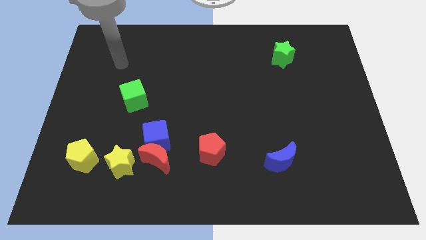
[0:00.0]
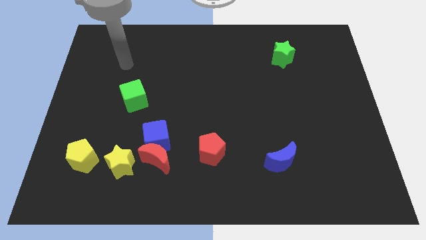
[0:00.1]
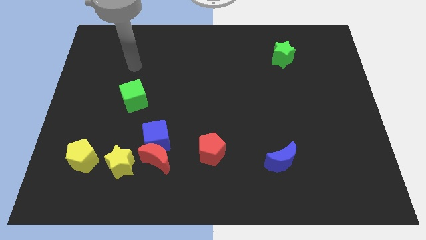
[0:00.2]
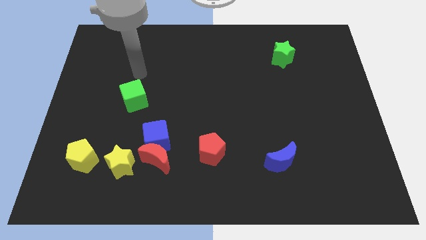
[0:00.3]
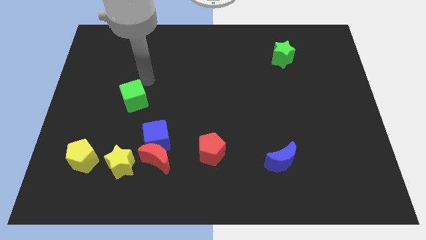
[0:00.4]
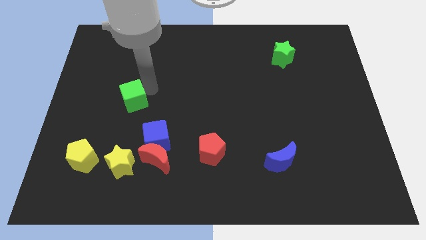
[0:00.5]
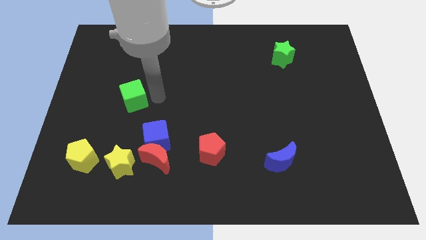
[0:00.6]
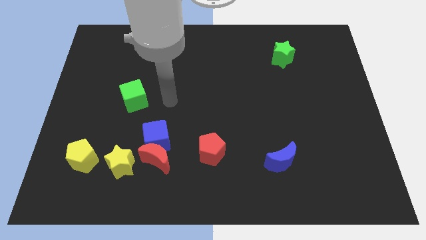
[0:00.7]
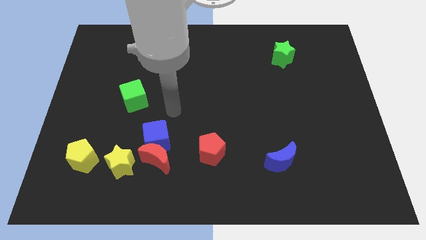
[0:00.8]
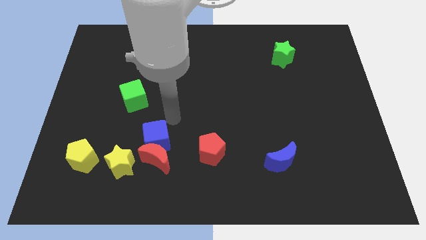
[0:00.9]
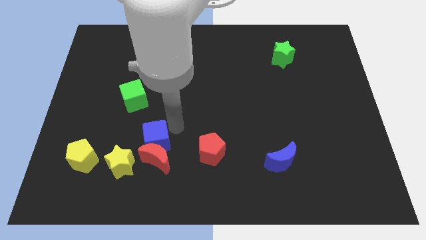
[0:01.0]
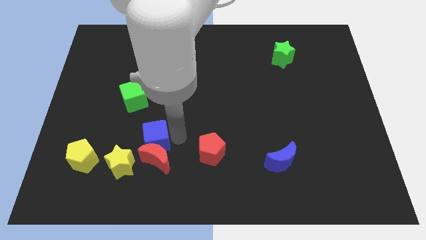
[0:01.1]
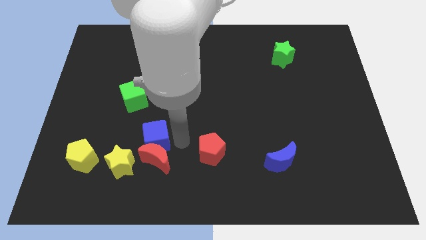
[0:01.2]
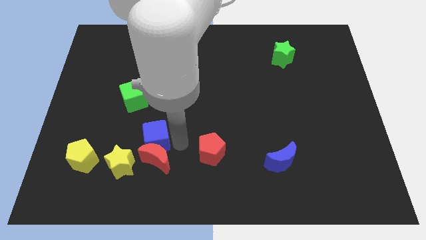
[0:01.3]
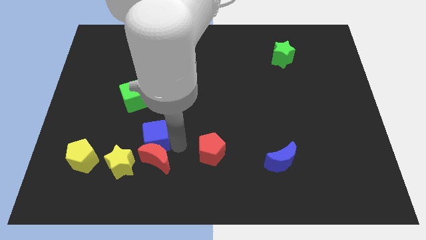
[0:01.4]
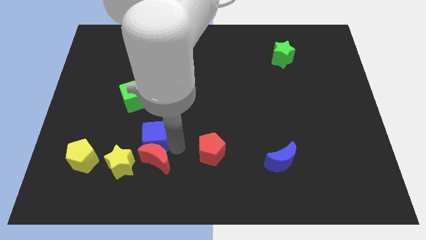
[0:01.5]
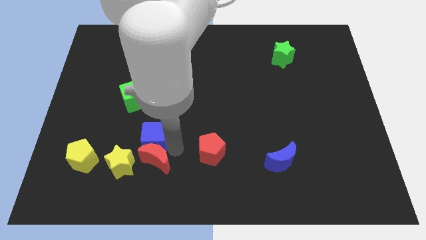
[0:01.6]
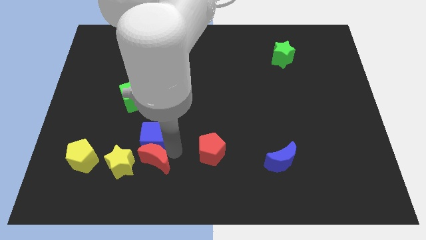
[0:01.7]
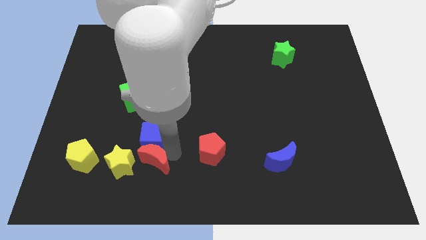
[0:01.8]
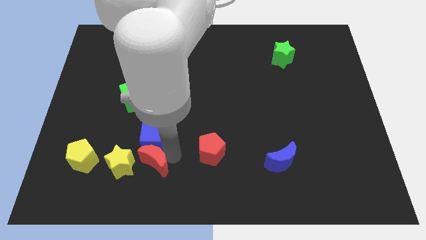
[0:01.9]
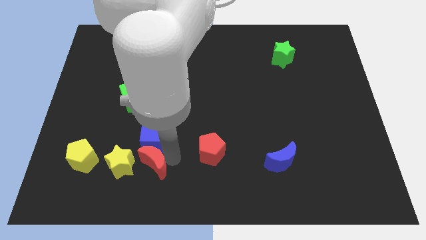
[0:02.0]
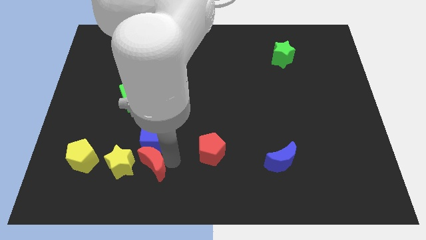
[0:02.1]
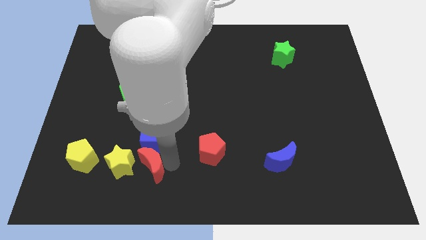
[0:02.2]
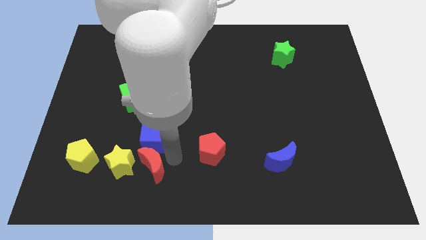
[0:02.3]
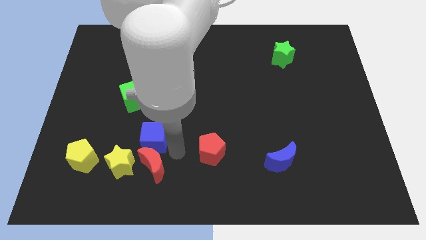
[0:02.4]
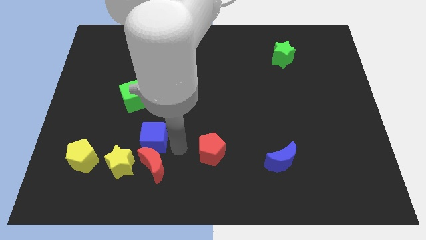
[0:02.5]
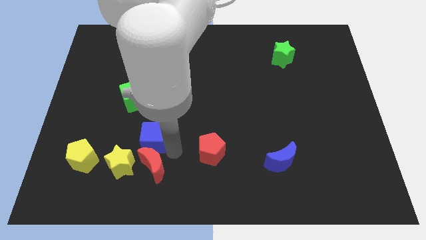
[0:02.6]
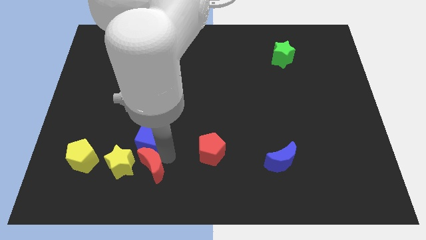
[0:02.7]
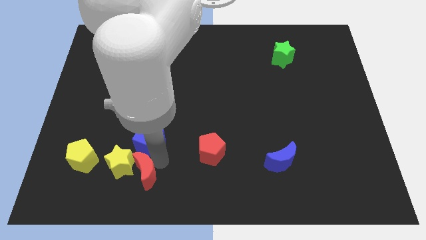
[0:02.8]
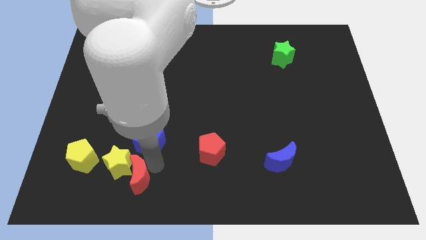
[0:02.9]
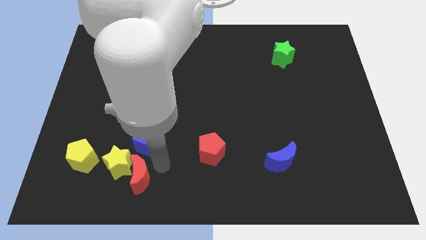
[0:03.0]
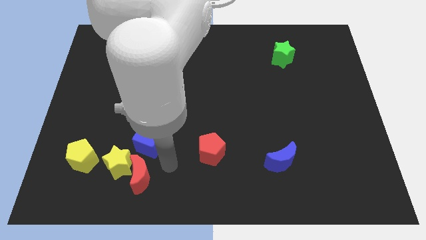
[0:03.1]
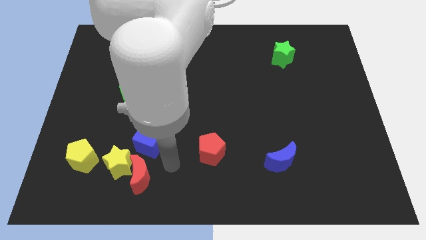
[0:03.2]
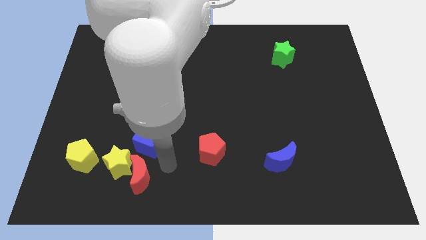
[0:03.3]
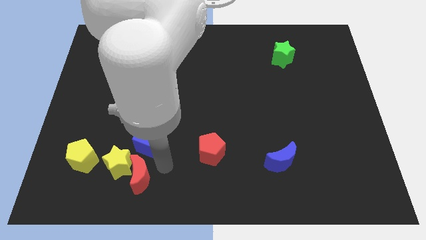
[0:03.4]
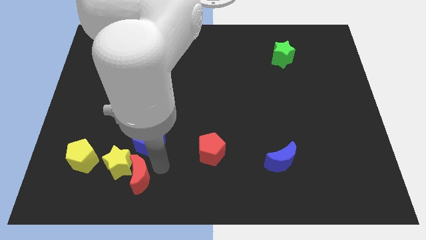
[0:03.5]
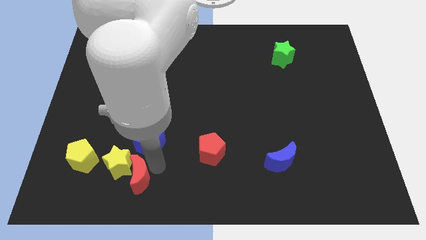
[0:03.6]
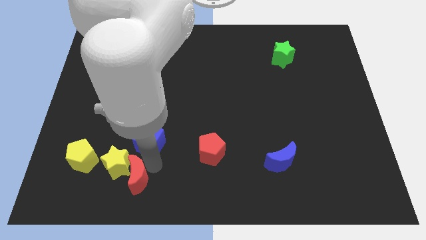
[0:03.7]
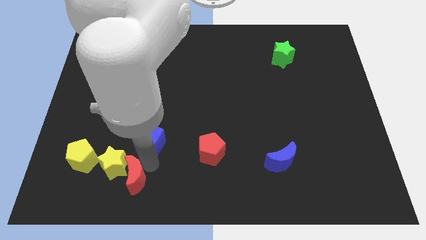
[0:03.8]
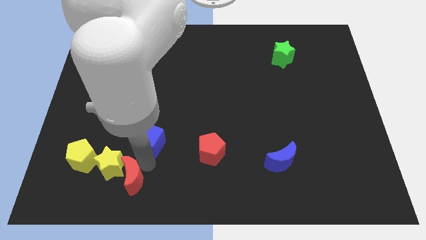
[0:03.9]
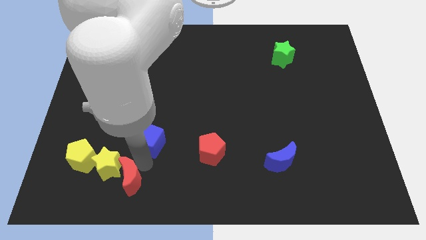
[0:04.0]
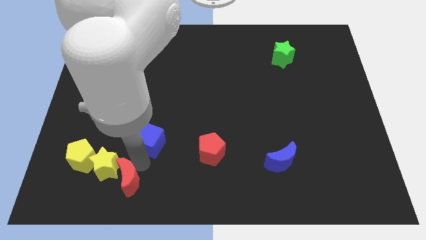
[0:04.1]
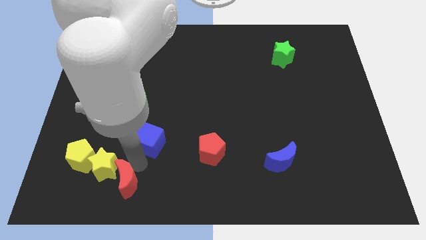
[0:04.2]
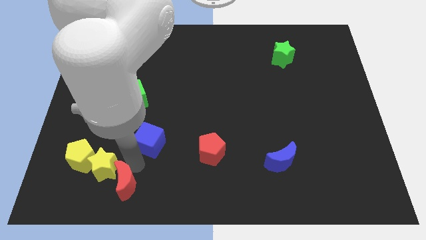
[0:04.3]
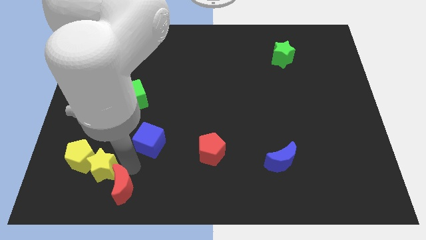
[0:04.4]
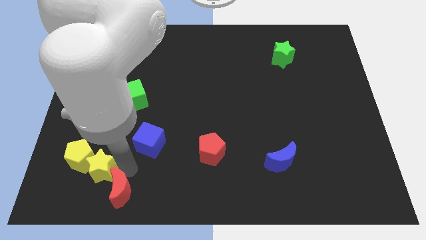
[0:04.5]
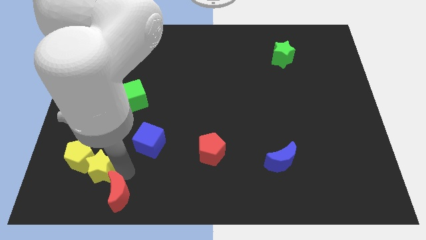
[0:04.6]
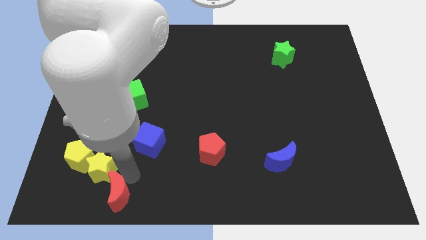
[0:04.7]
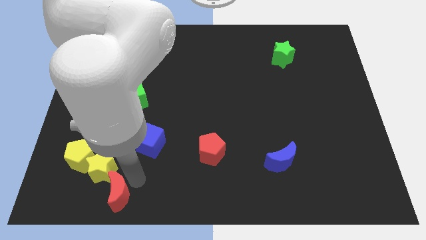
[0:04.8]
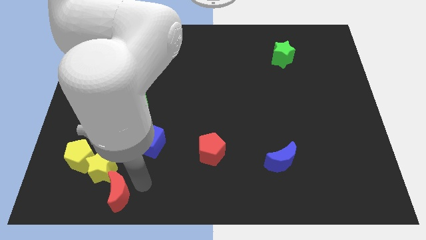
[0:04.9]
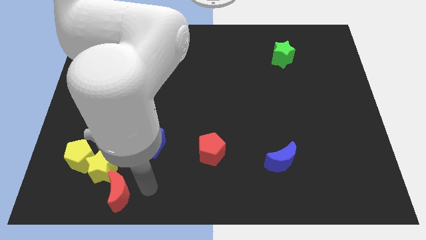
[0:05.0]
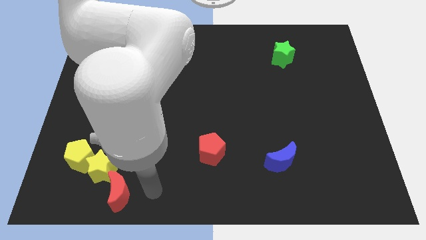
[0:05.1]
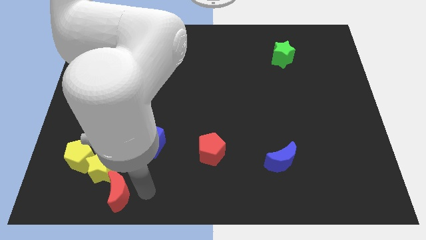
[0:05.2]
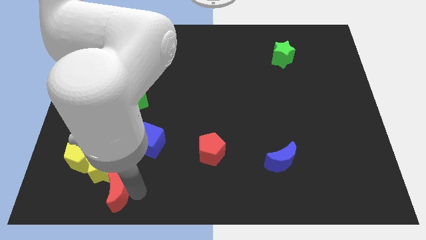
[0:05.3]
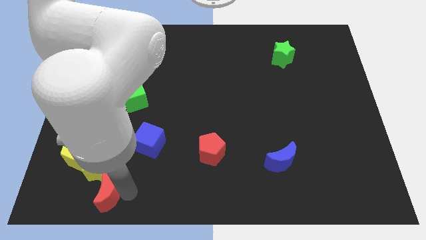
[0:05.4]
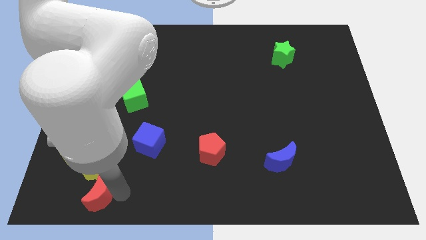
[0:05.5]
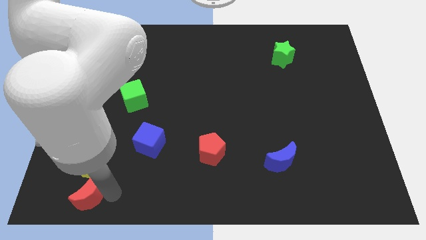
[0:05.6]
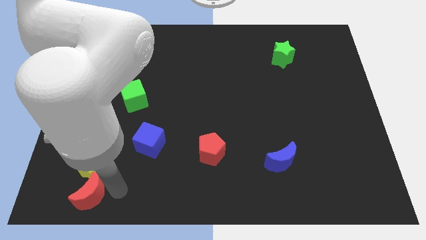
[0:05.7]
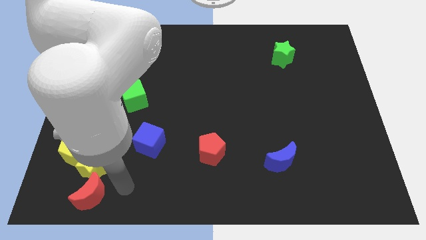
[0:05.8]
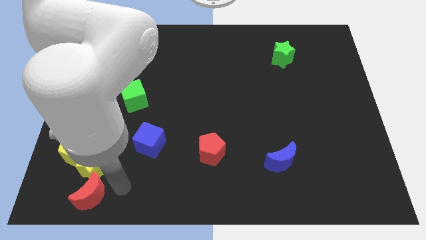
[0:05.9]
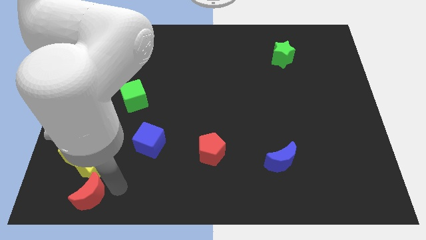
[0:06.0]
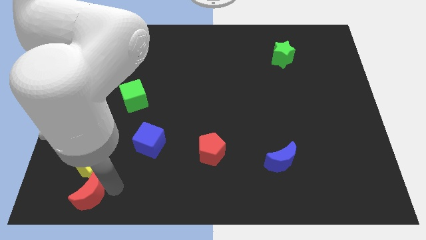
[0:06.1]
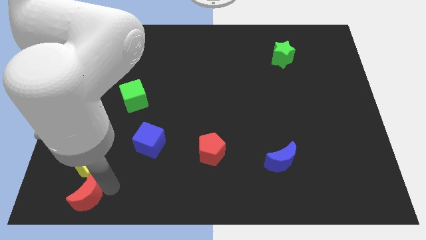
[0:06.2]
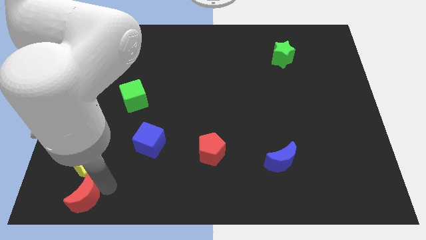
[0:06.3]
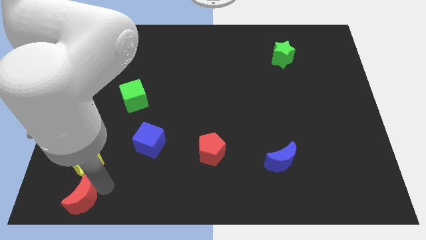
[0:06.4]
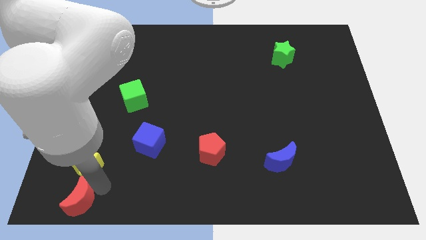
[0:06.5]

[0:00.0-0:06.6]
slide the red moon to the bottom left of the board
